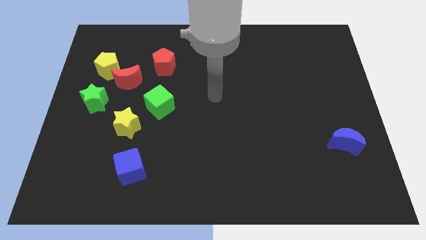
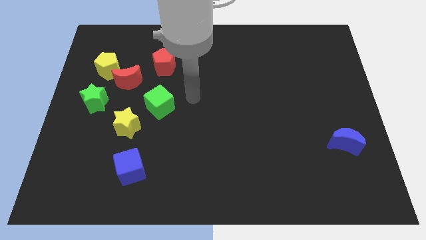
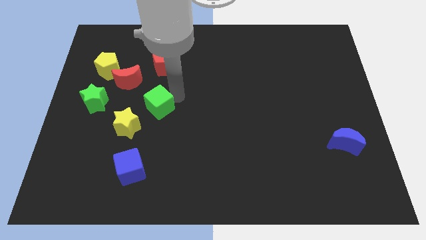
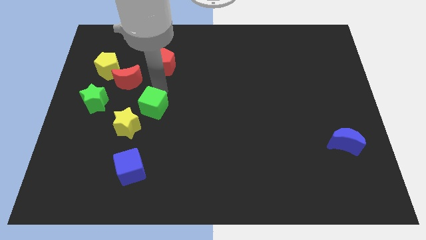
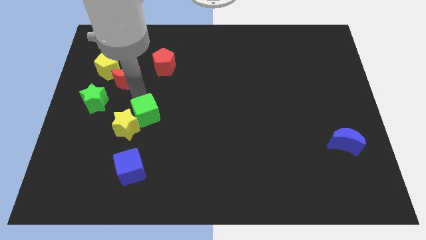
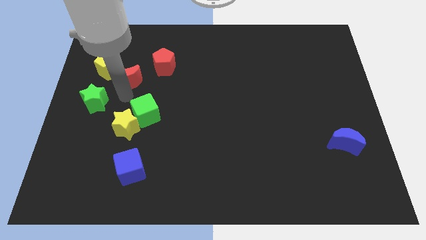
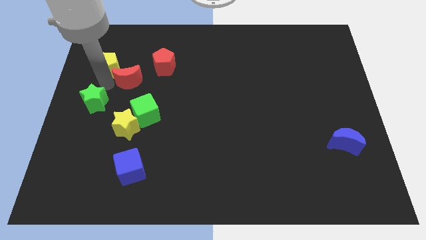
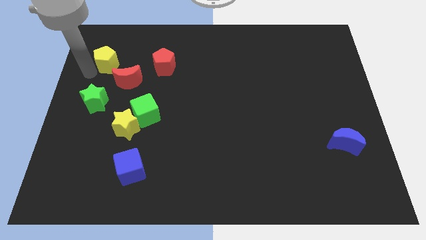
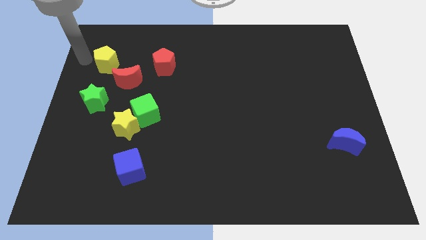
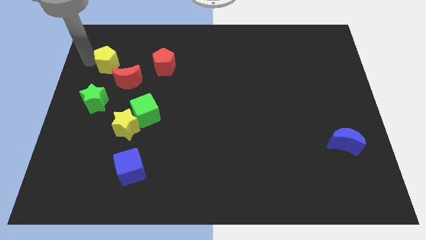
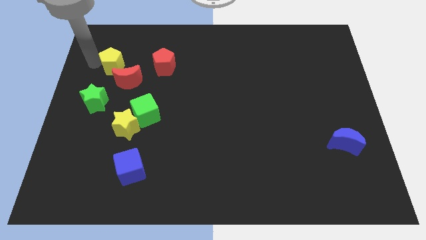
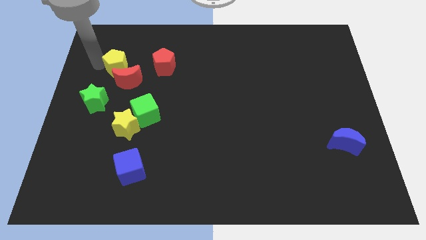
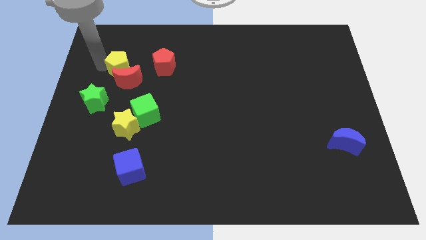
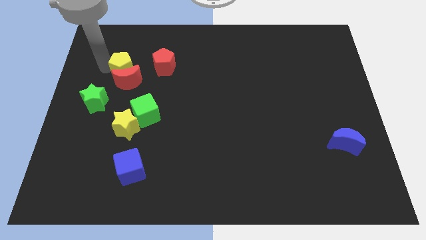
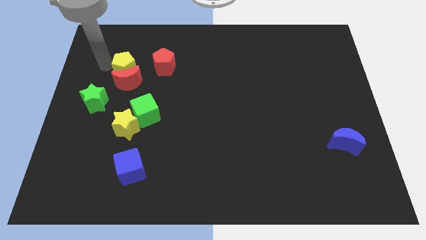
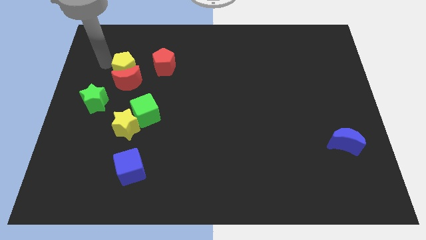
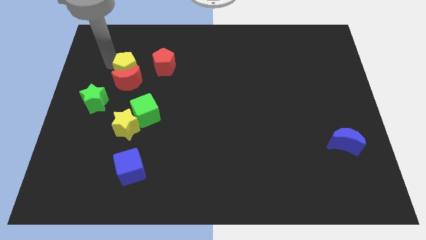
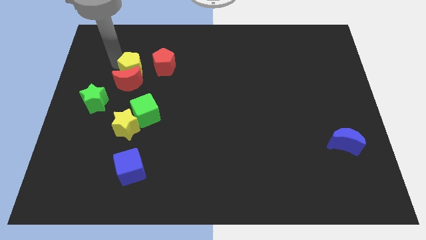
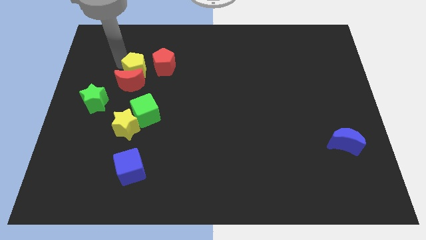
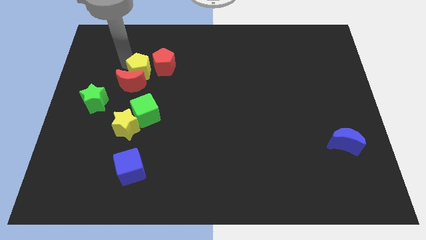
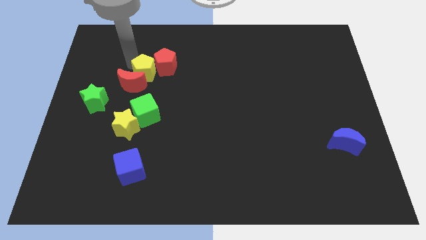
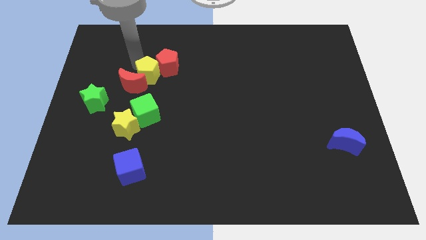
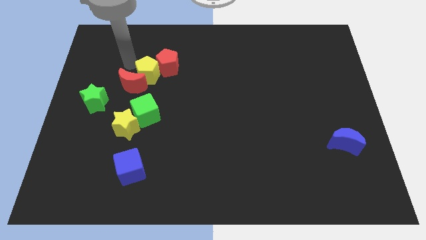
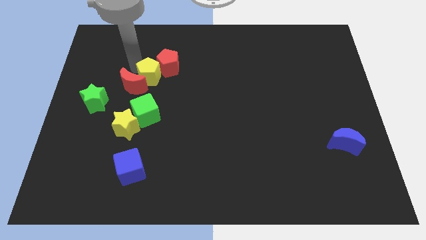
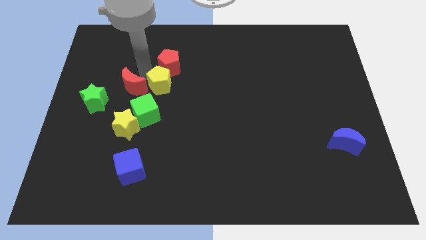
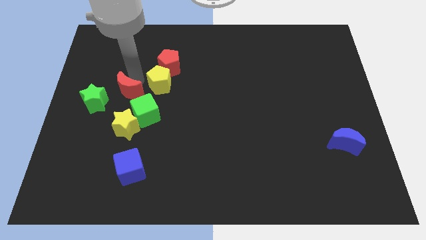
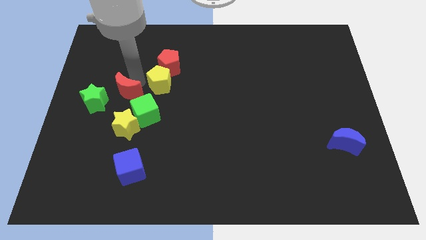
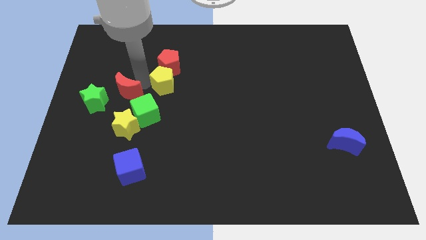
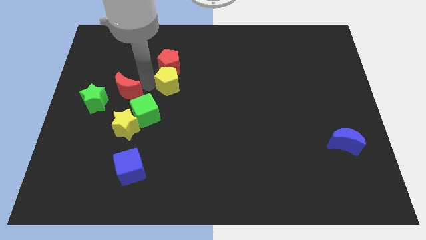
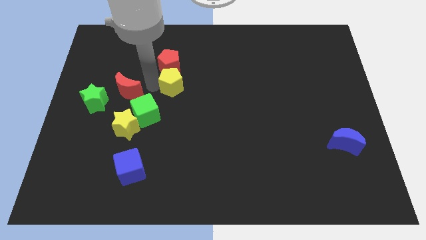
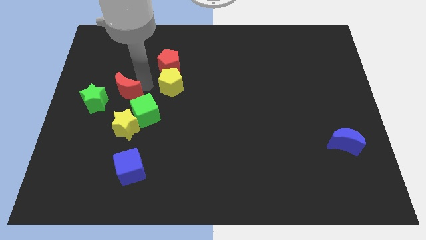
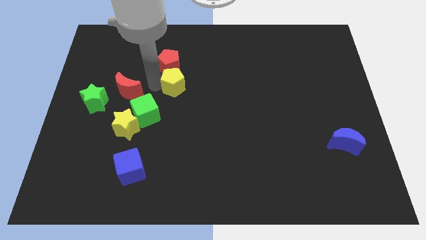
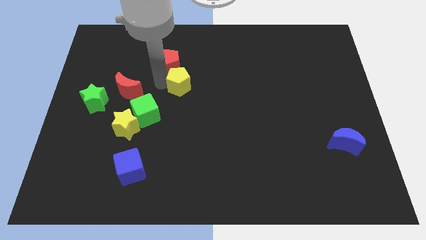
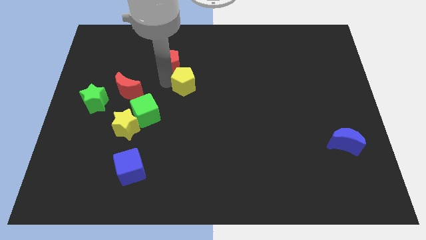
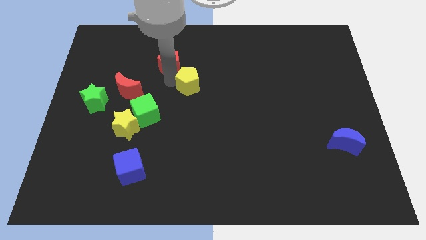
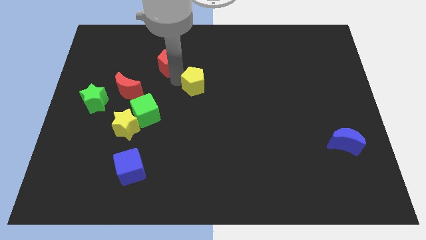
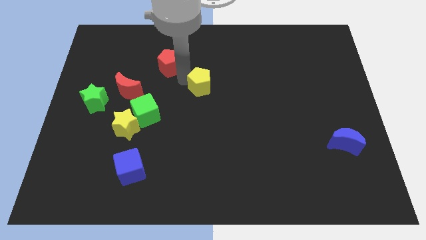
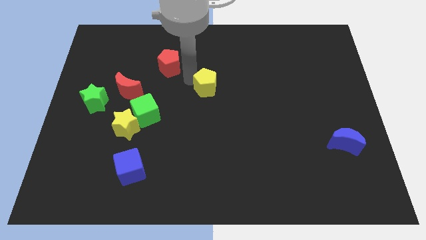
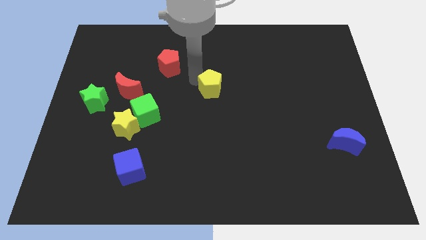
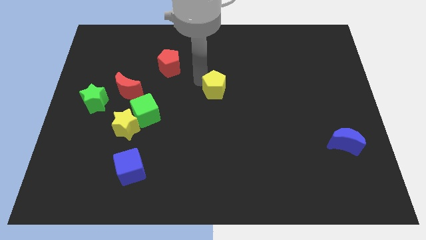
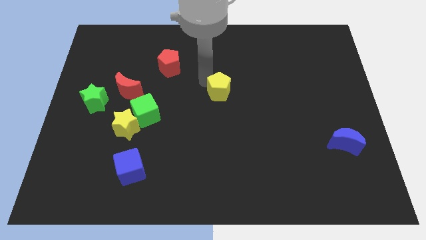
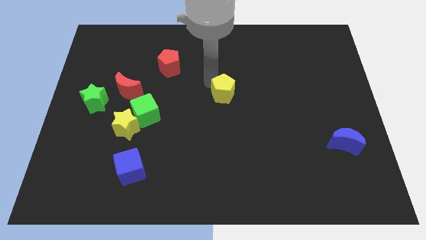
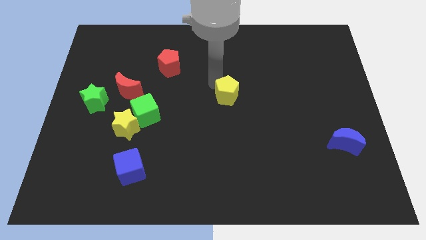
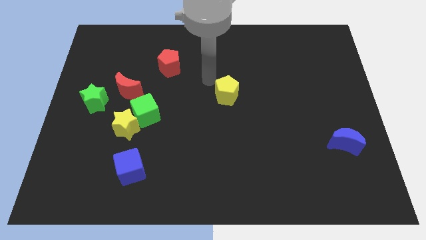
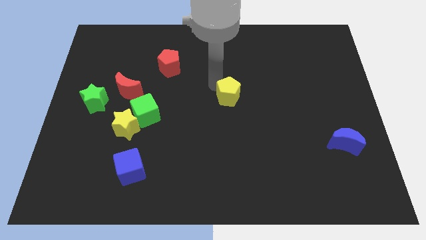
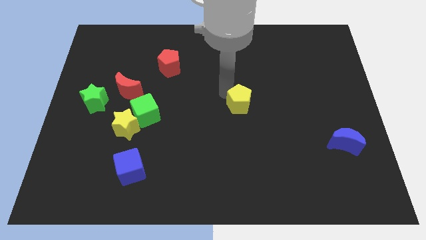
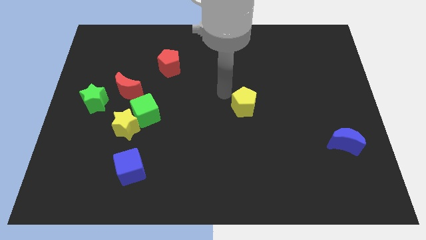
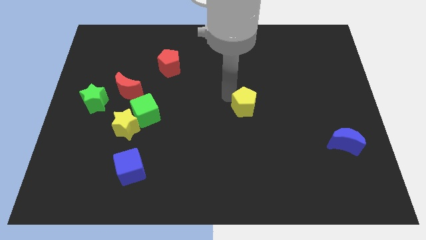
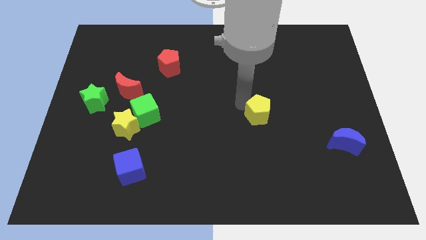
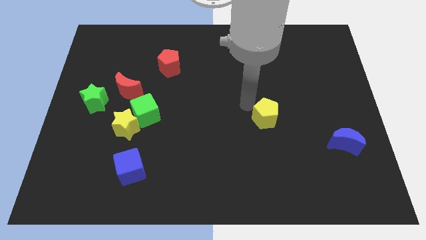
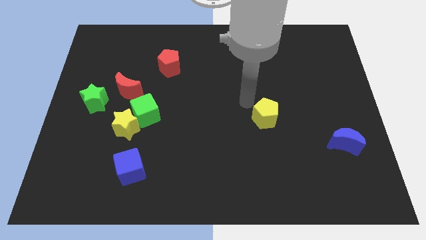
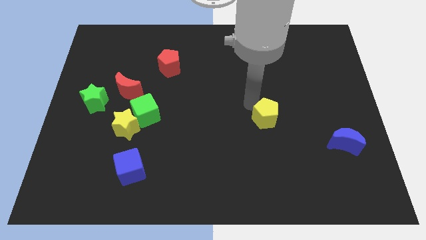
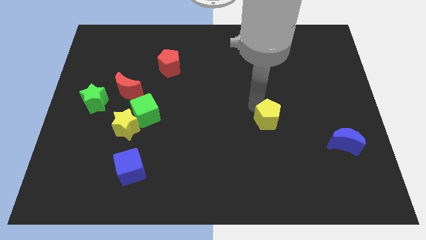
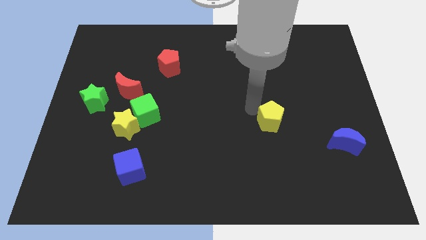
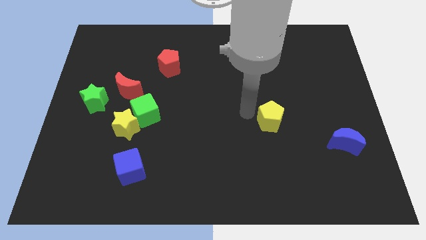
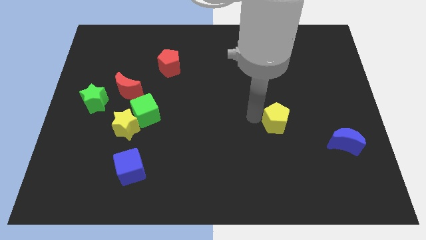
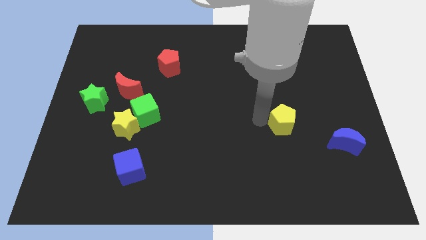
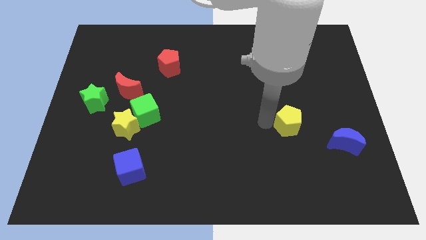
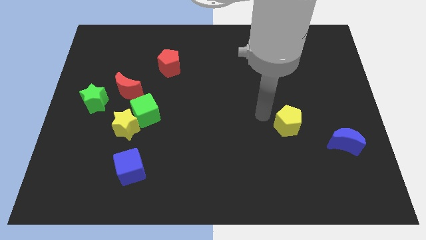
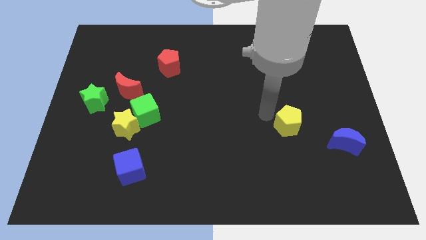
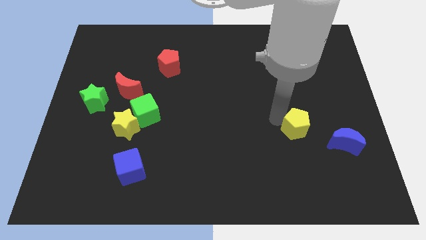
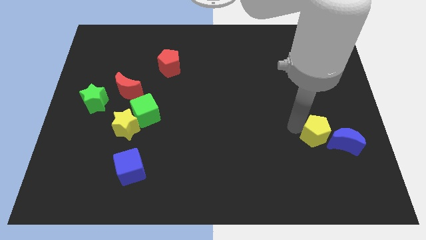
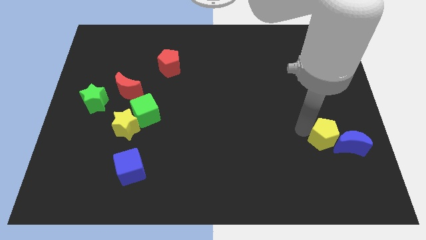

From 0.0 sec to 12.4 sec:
move the yellow pentagon next to the blue moon

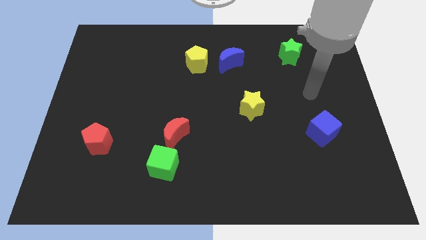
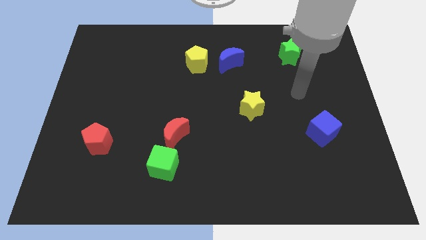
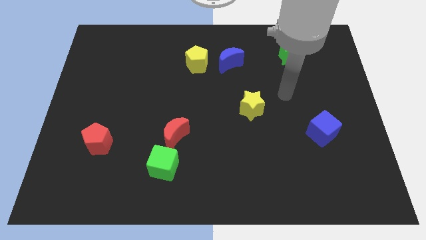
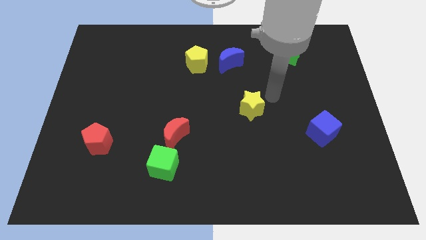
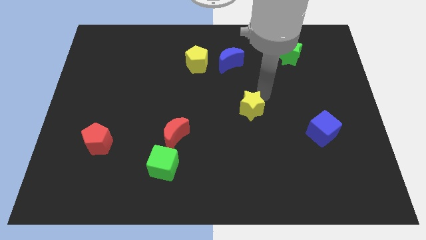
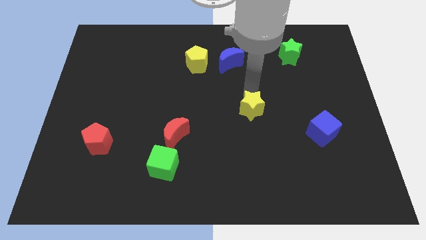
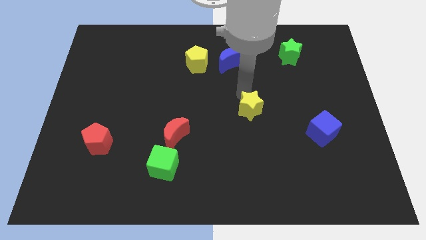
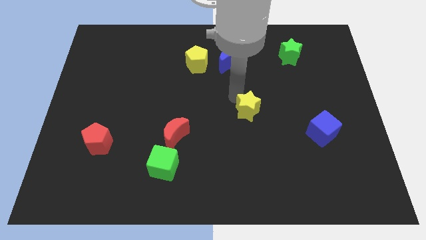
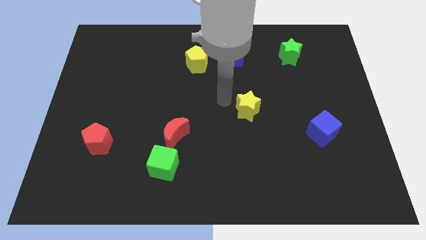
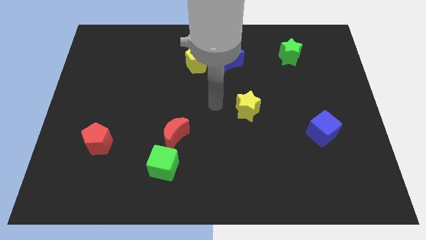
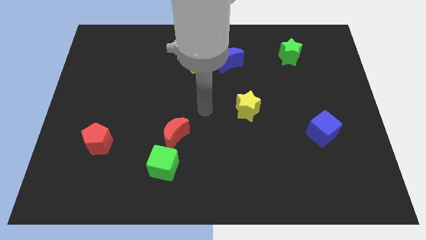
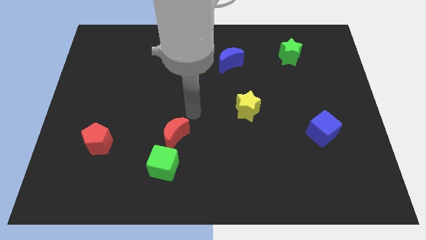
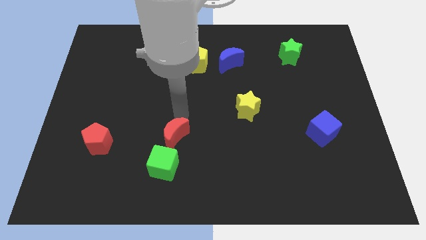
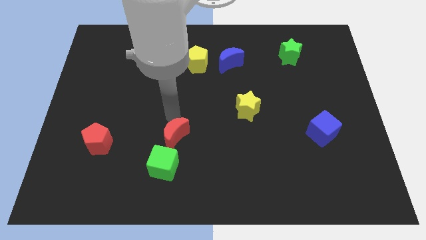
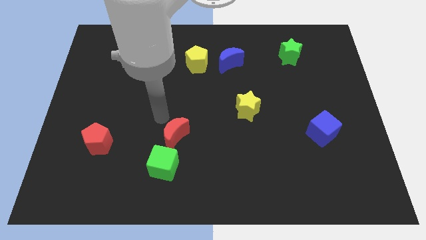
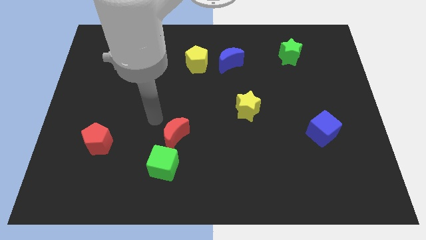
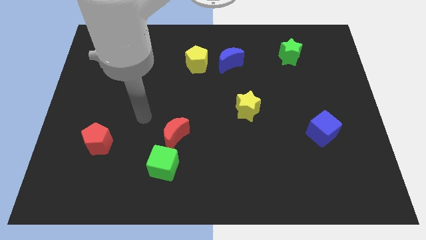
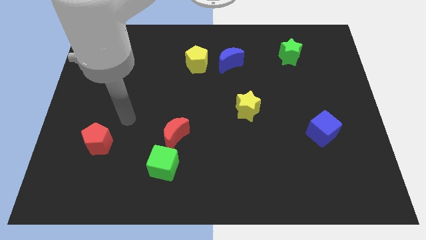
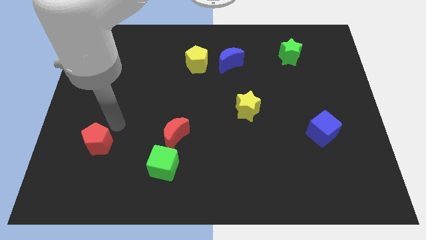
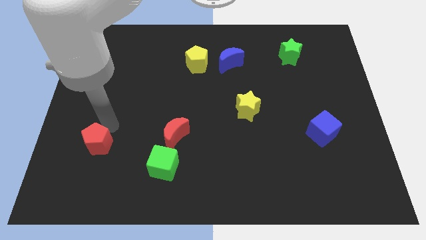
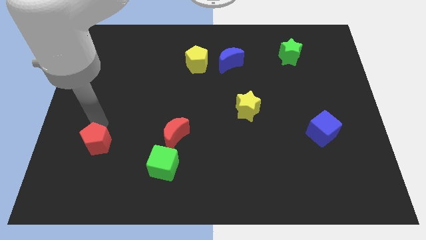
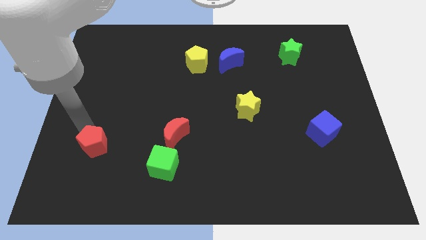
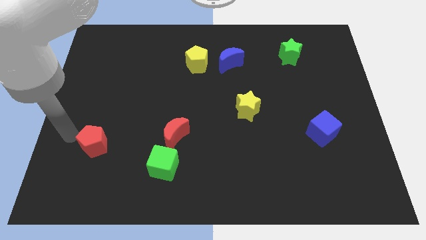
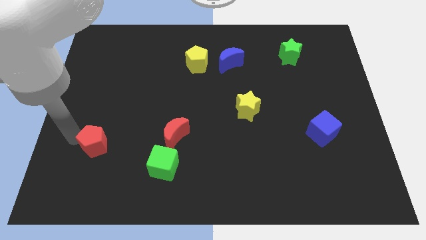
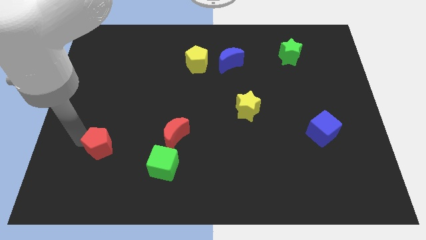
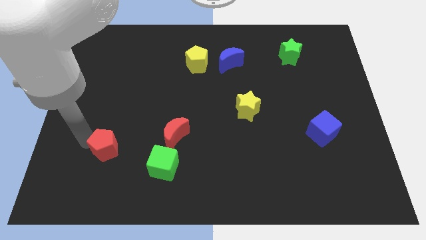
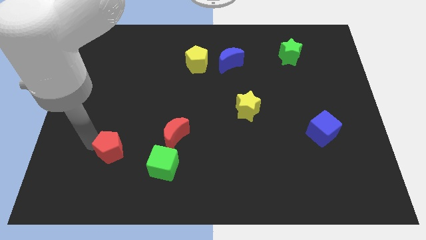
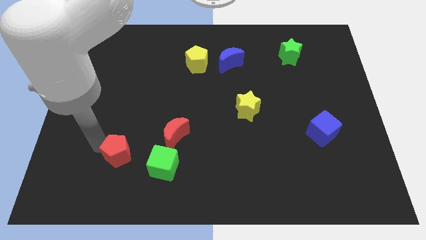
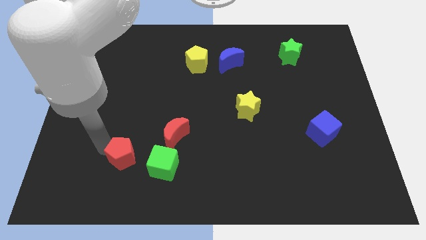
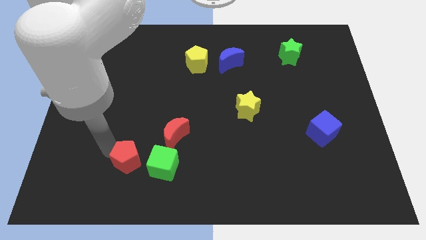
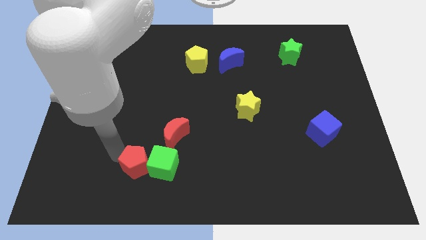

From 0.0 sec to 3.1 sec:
move the red pentagon to the green cube
